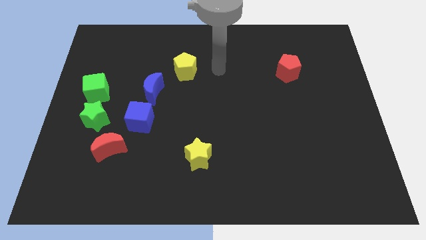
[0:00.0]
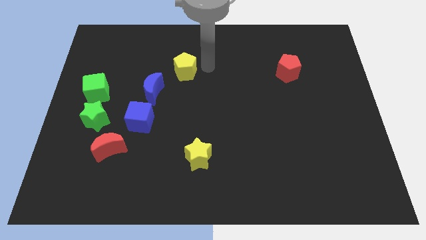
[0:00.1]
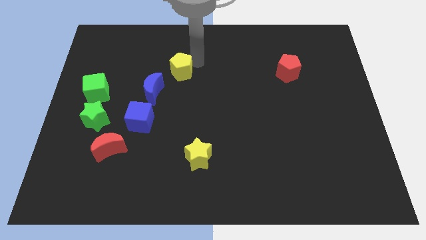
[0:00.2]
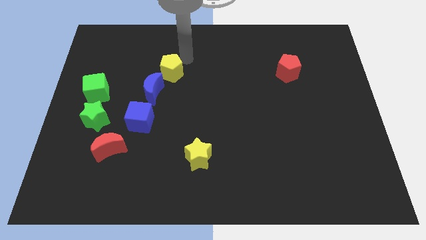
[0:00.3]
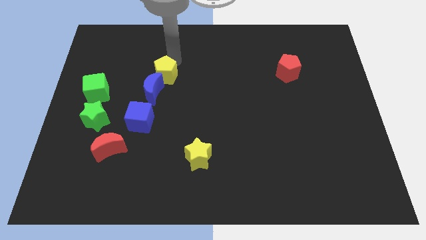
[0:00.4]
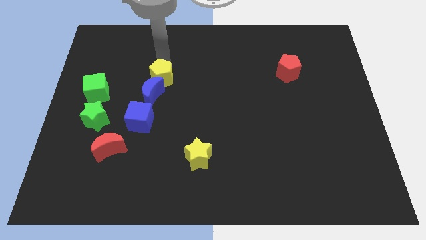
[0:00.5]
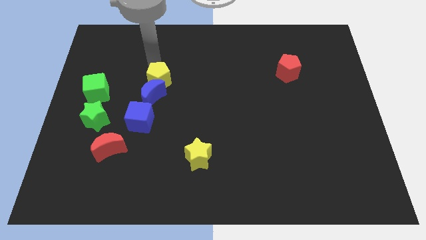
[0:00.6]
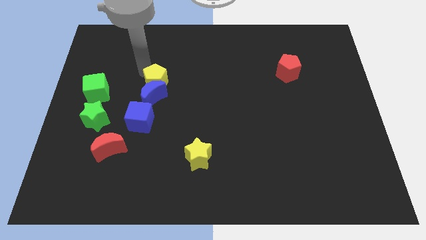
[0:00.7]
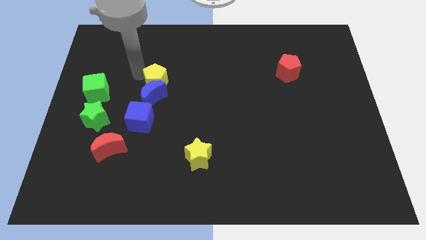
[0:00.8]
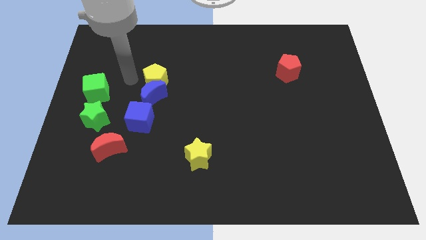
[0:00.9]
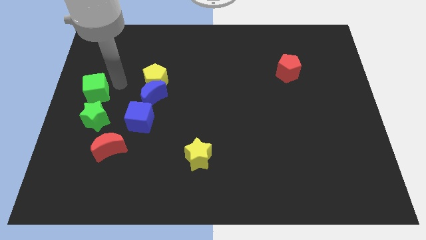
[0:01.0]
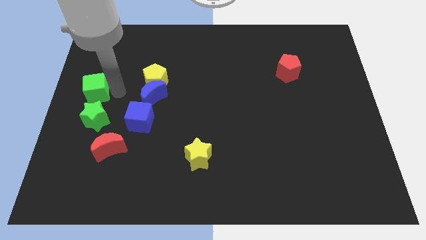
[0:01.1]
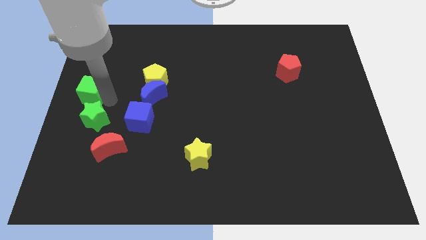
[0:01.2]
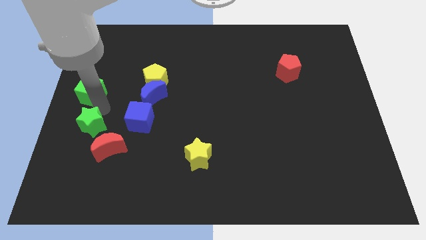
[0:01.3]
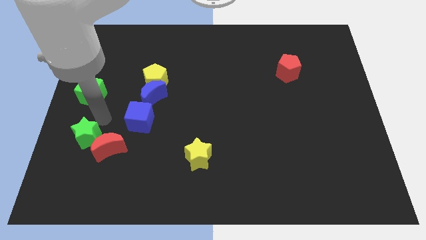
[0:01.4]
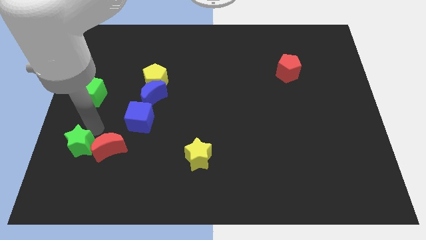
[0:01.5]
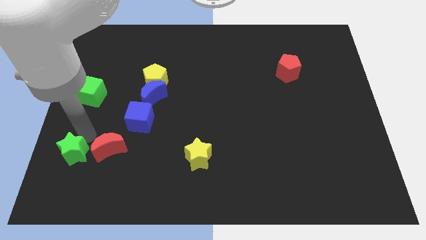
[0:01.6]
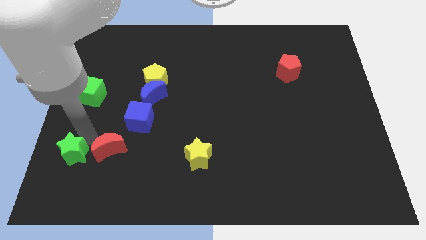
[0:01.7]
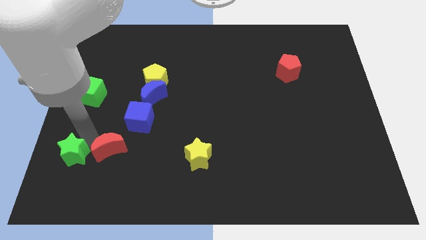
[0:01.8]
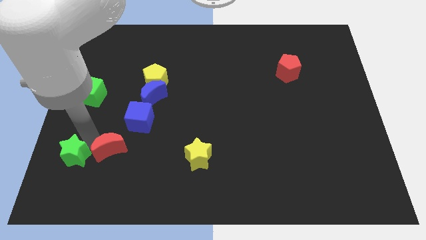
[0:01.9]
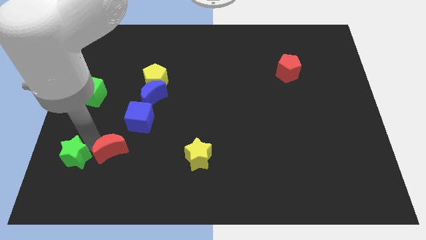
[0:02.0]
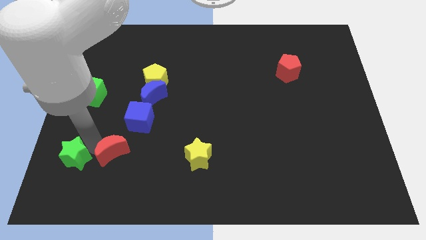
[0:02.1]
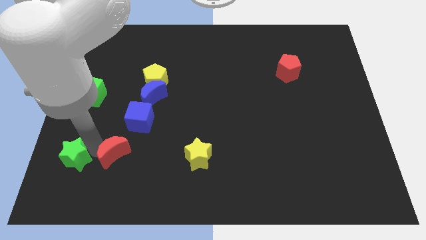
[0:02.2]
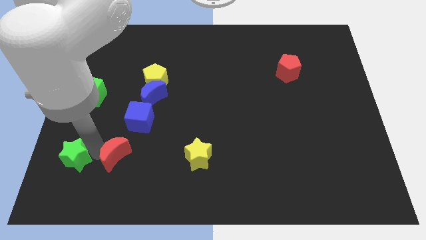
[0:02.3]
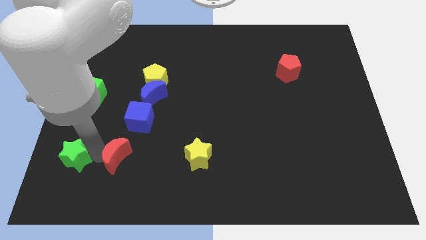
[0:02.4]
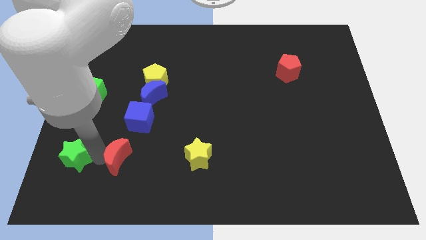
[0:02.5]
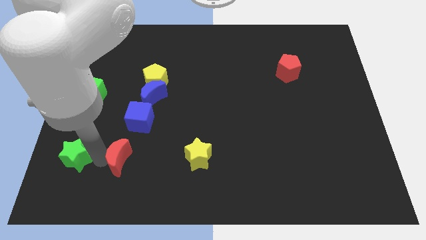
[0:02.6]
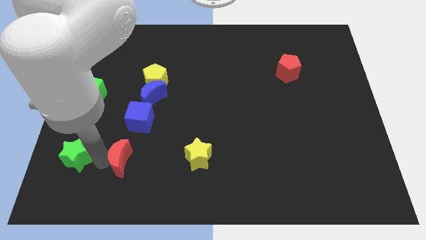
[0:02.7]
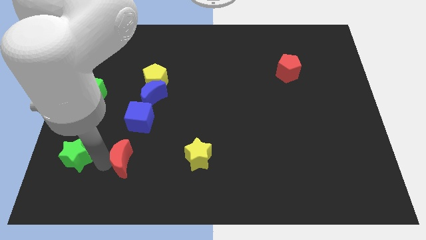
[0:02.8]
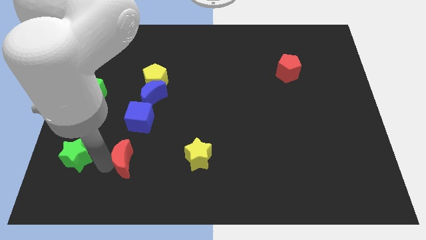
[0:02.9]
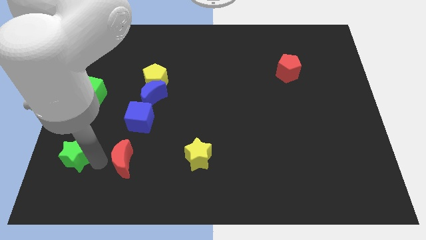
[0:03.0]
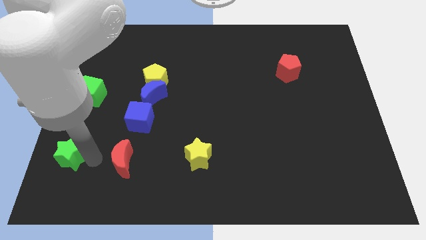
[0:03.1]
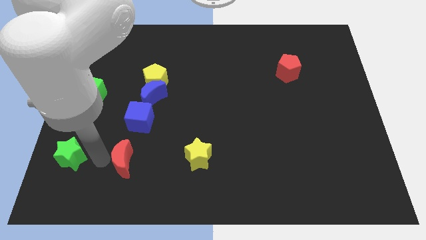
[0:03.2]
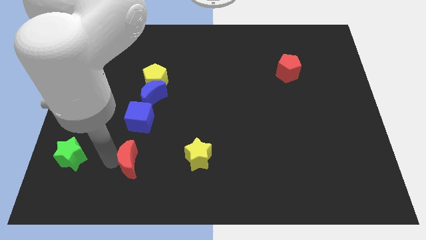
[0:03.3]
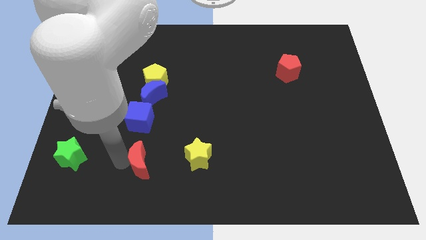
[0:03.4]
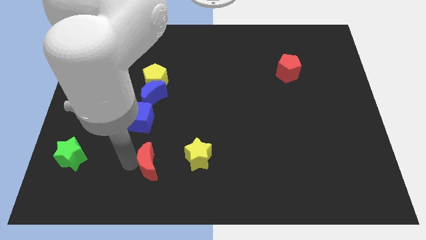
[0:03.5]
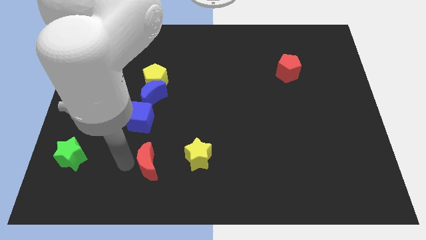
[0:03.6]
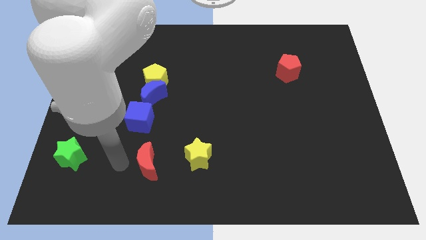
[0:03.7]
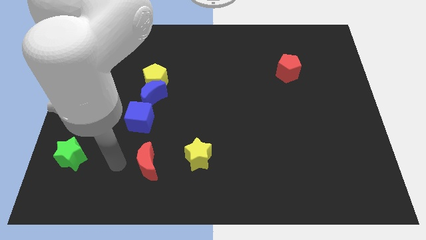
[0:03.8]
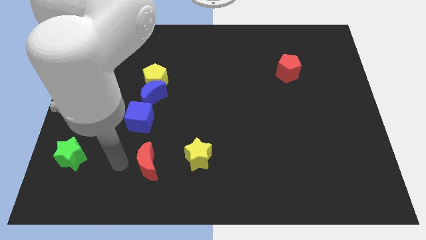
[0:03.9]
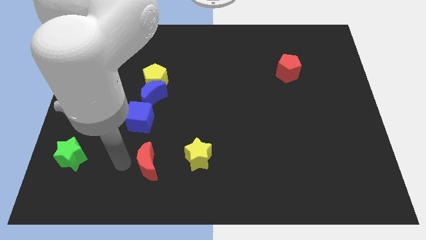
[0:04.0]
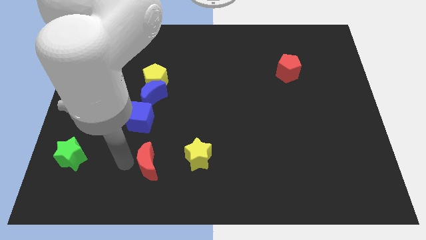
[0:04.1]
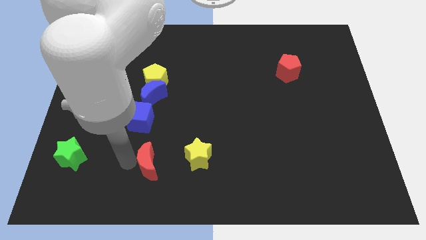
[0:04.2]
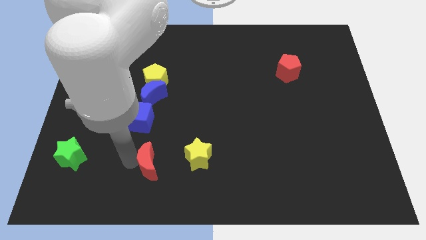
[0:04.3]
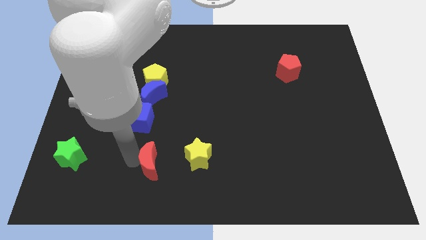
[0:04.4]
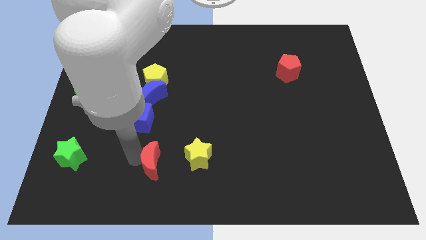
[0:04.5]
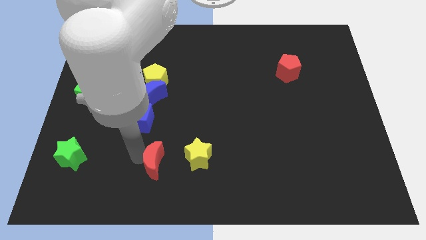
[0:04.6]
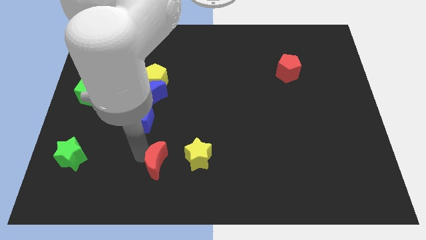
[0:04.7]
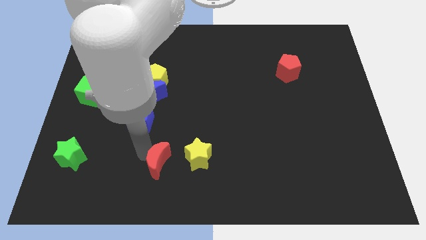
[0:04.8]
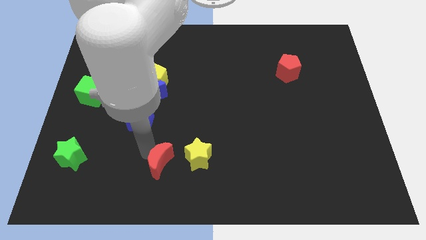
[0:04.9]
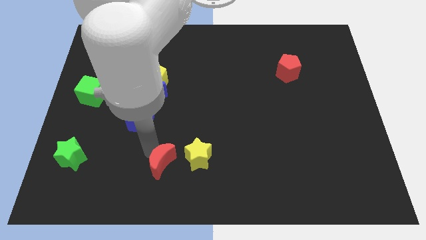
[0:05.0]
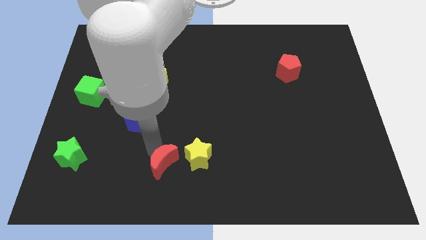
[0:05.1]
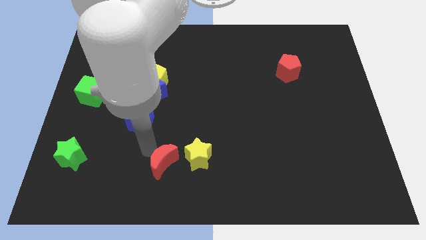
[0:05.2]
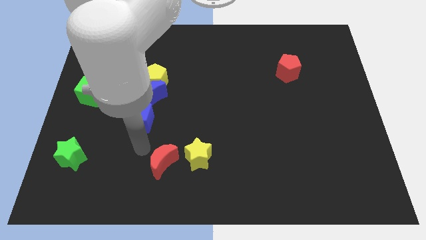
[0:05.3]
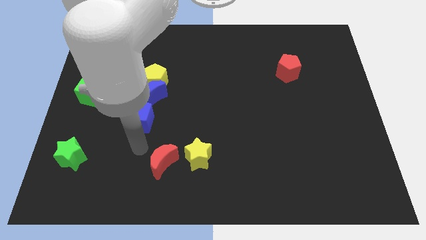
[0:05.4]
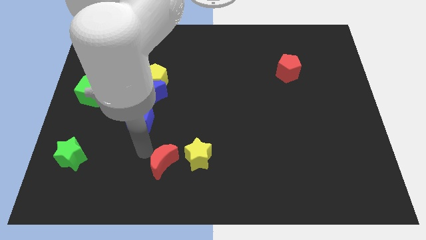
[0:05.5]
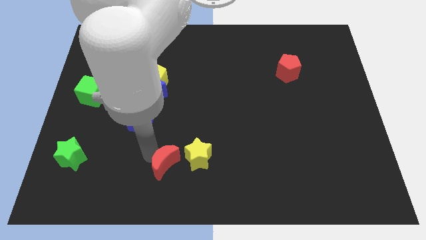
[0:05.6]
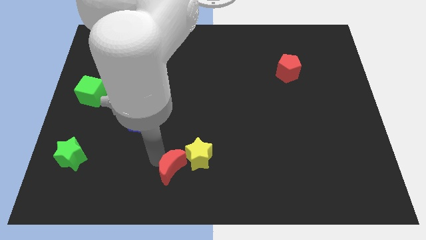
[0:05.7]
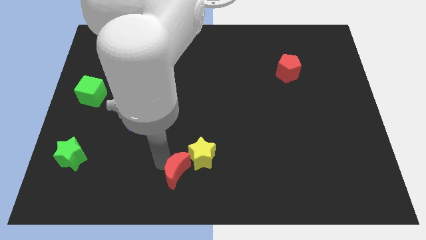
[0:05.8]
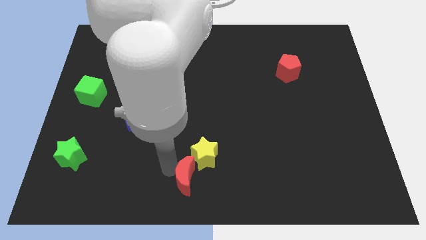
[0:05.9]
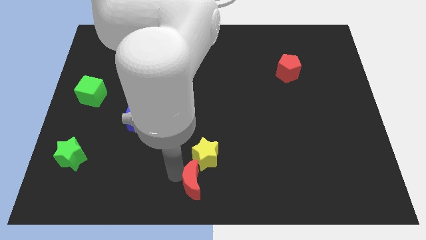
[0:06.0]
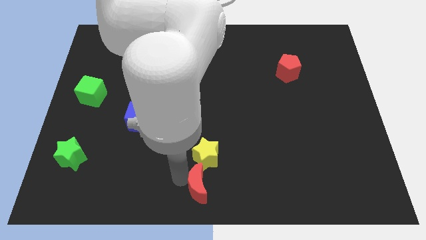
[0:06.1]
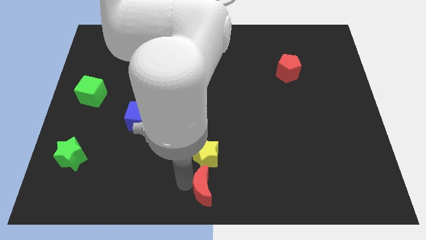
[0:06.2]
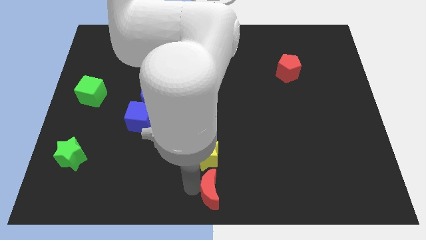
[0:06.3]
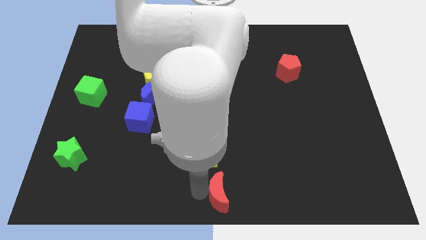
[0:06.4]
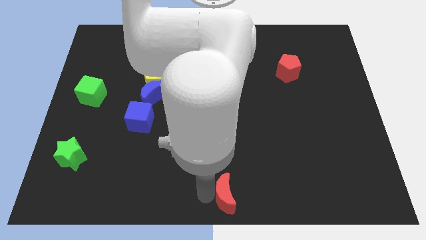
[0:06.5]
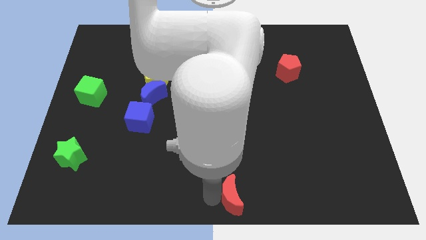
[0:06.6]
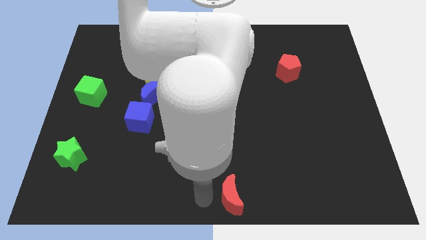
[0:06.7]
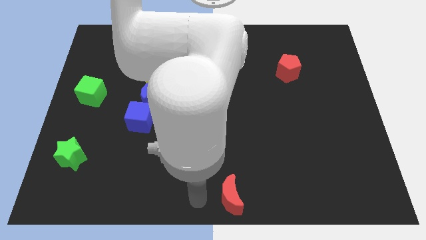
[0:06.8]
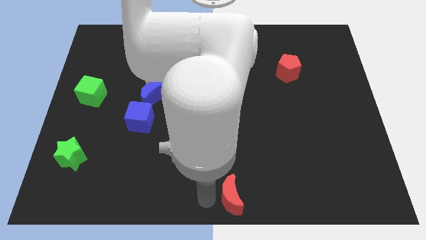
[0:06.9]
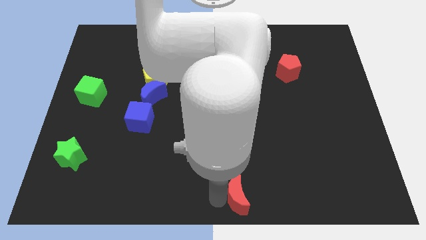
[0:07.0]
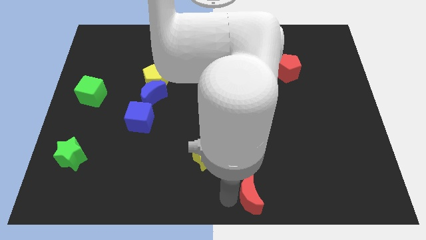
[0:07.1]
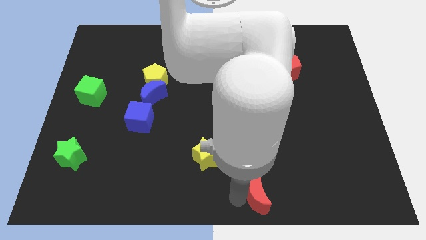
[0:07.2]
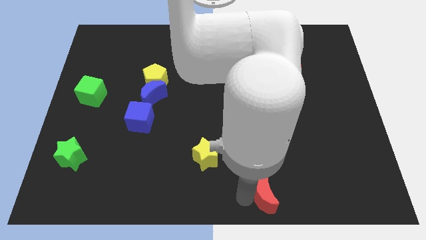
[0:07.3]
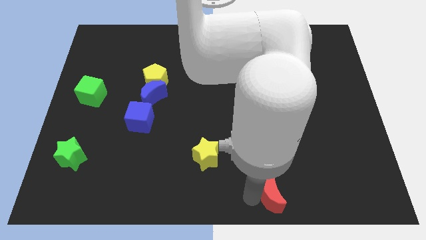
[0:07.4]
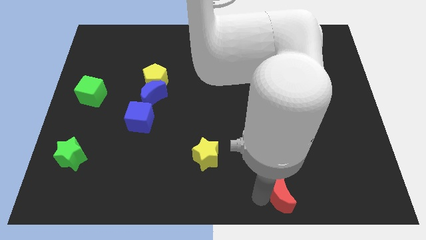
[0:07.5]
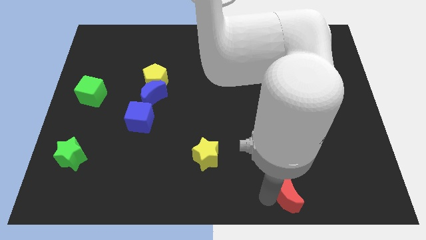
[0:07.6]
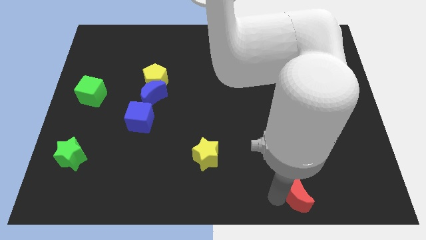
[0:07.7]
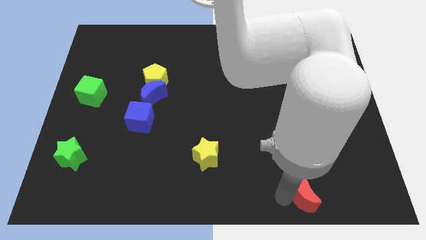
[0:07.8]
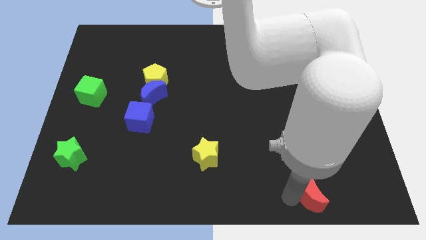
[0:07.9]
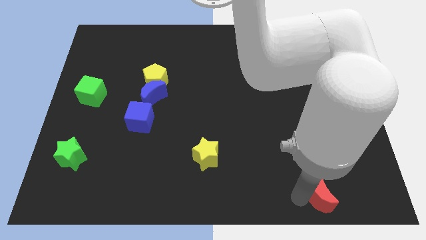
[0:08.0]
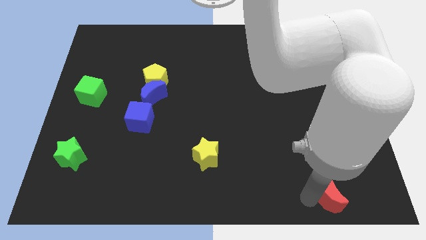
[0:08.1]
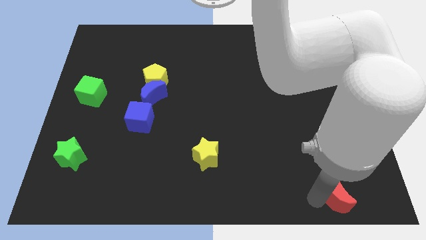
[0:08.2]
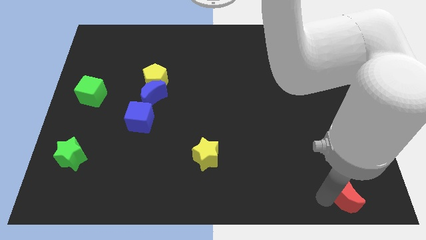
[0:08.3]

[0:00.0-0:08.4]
put the red moon to the lower right corner
